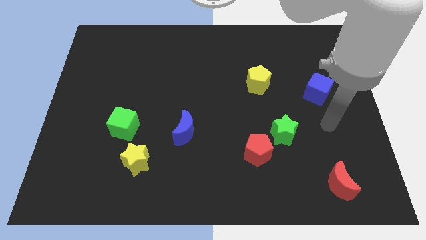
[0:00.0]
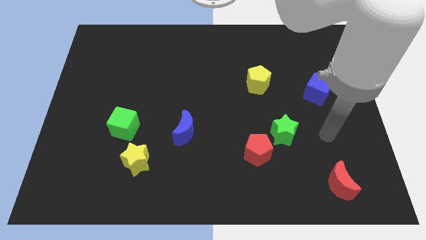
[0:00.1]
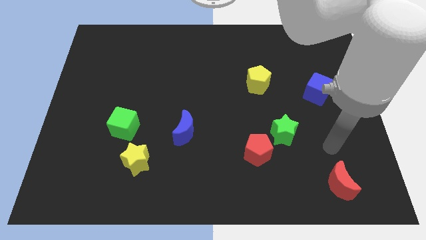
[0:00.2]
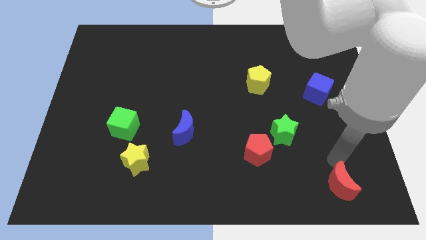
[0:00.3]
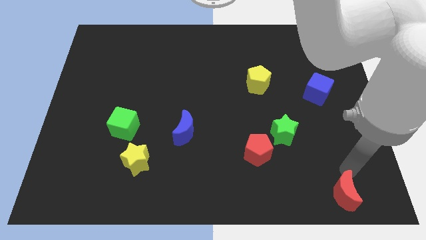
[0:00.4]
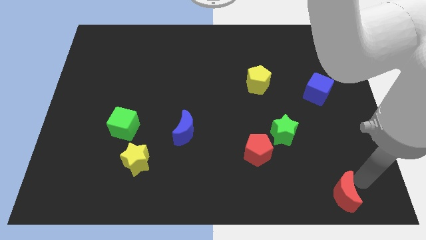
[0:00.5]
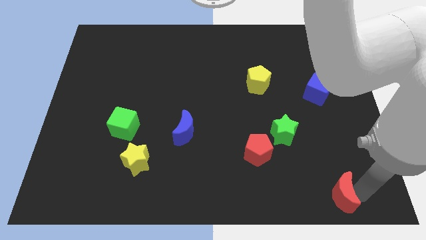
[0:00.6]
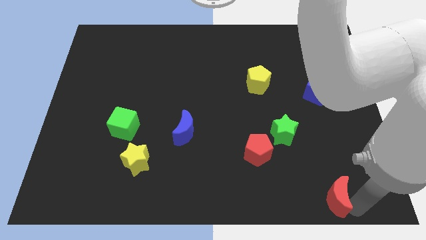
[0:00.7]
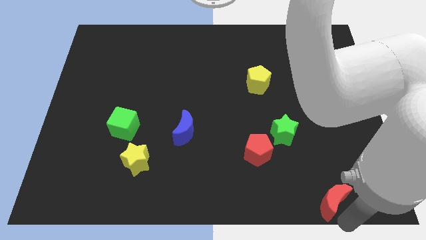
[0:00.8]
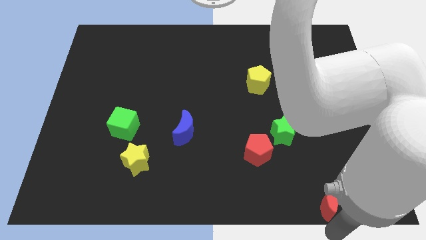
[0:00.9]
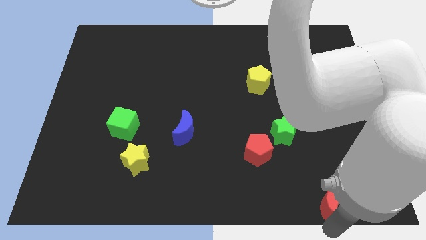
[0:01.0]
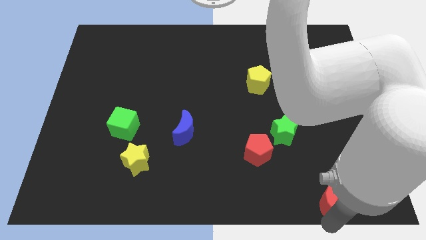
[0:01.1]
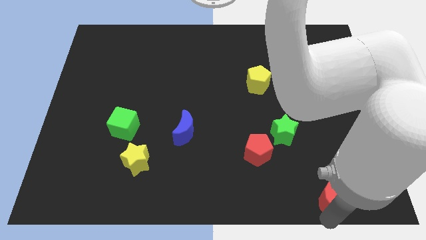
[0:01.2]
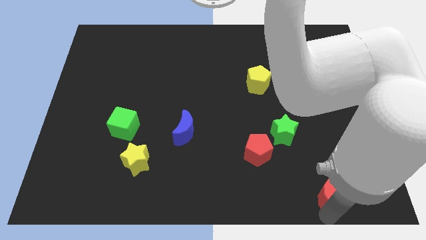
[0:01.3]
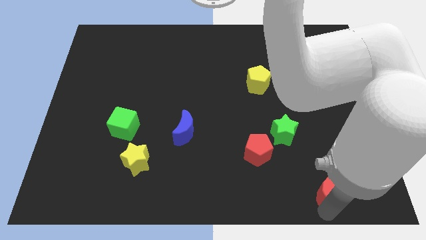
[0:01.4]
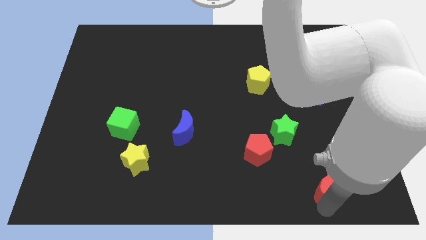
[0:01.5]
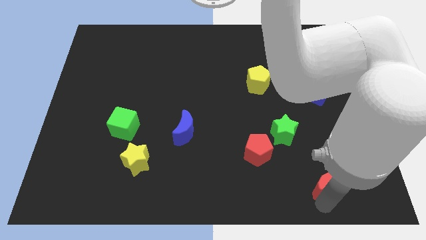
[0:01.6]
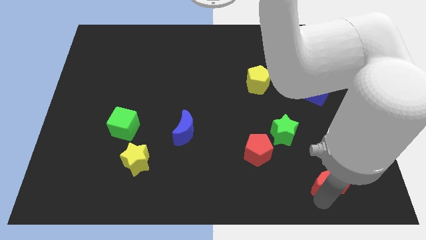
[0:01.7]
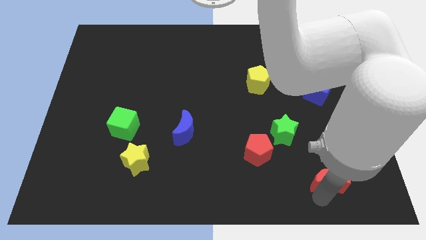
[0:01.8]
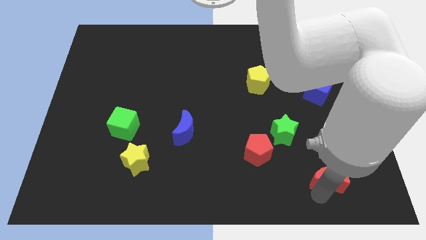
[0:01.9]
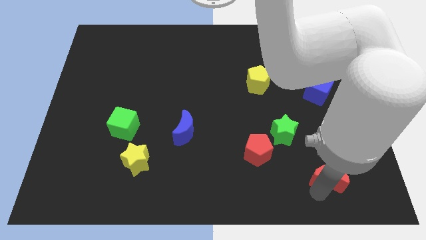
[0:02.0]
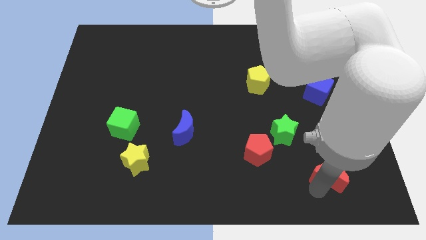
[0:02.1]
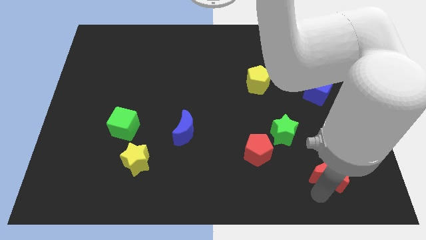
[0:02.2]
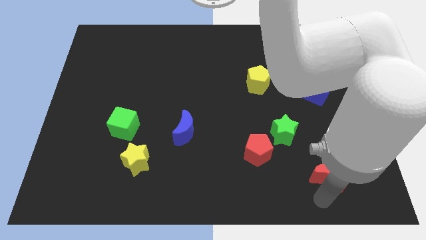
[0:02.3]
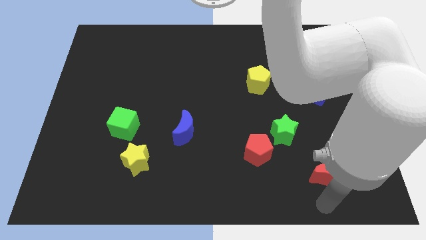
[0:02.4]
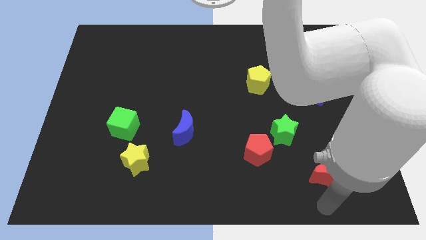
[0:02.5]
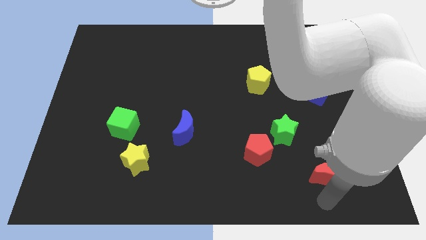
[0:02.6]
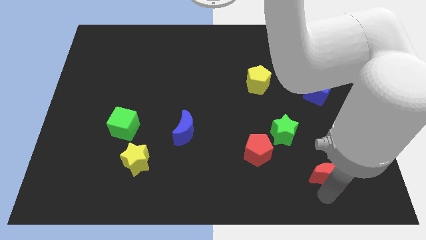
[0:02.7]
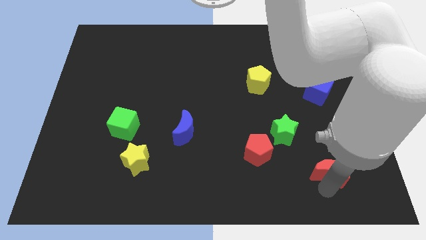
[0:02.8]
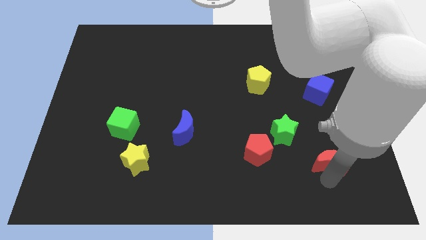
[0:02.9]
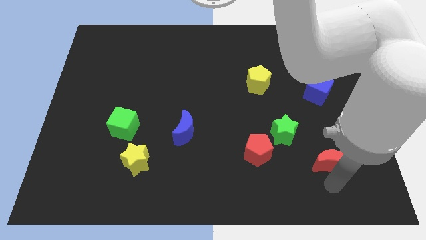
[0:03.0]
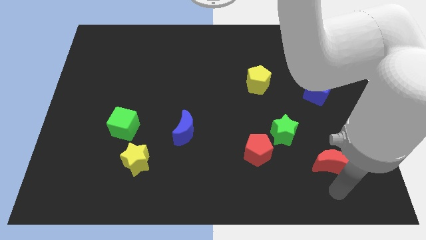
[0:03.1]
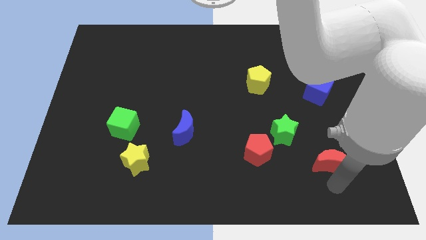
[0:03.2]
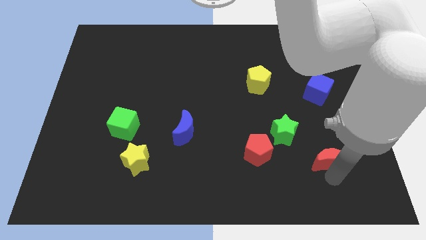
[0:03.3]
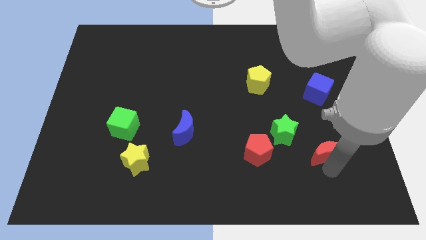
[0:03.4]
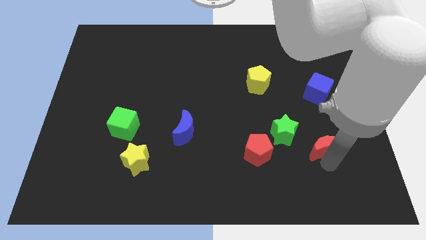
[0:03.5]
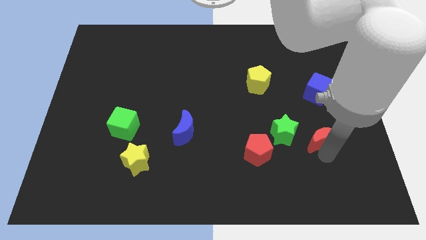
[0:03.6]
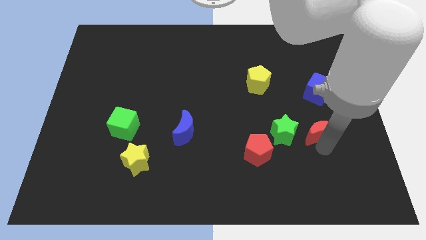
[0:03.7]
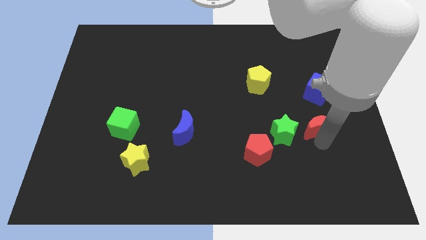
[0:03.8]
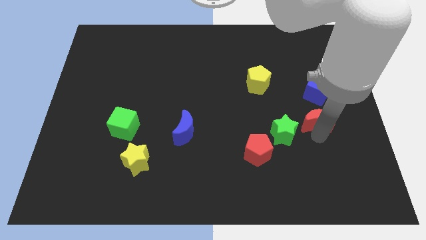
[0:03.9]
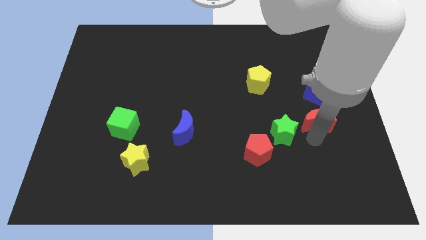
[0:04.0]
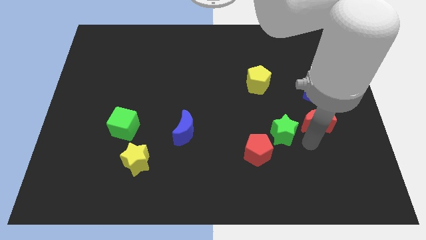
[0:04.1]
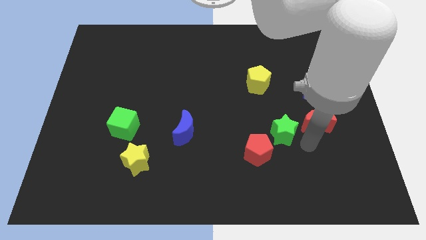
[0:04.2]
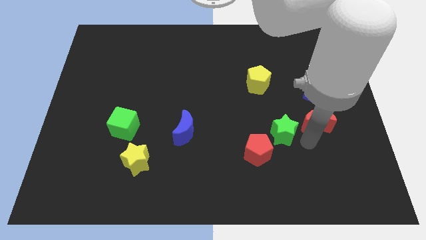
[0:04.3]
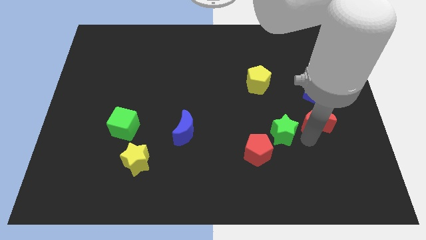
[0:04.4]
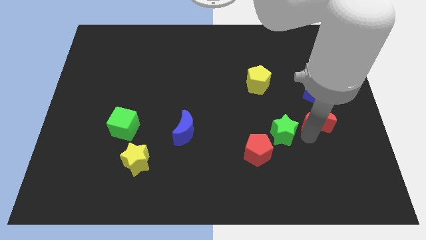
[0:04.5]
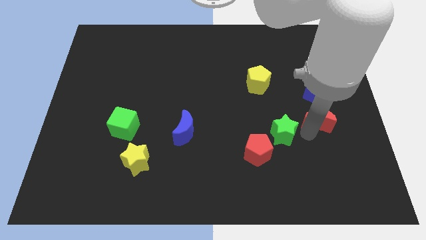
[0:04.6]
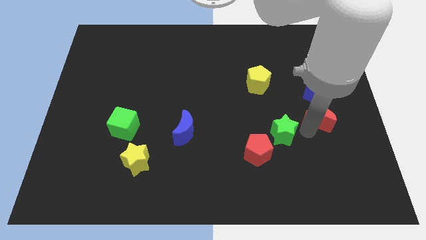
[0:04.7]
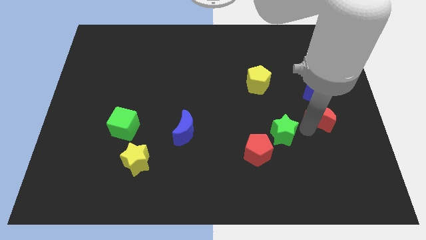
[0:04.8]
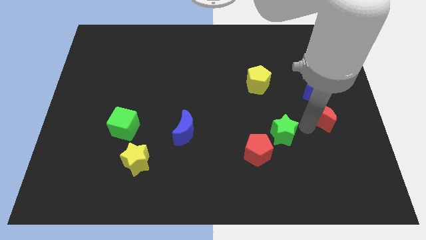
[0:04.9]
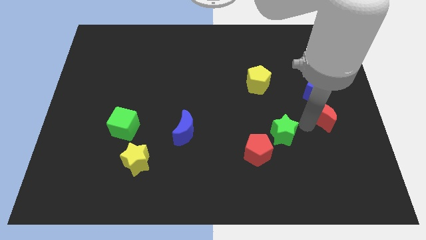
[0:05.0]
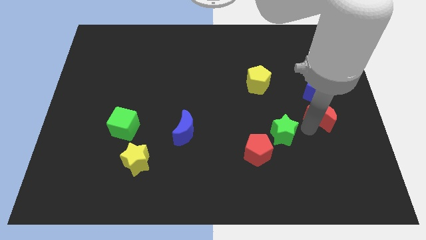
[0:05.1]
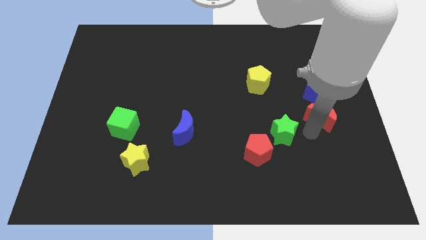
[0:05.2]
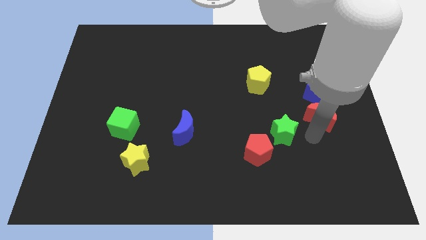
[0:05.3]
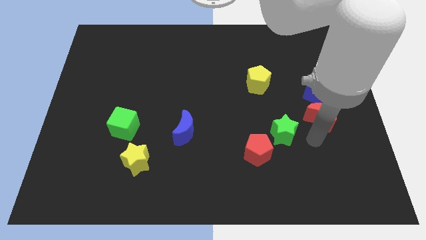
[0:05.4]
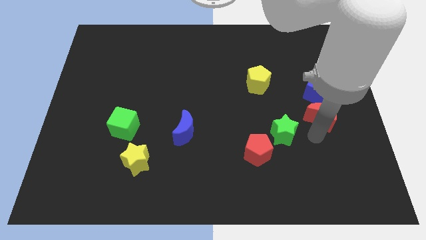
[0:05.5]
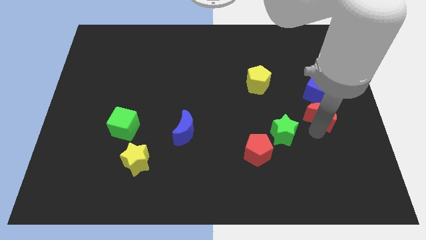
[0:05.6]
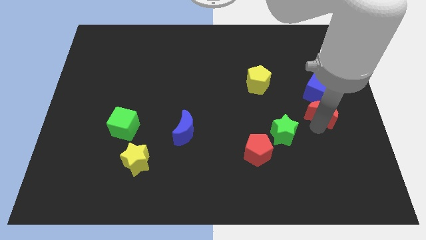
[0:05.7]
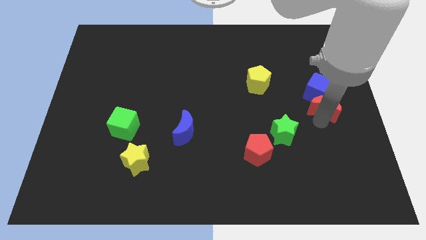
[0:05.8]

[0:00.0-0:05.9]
slide the red moon to the blue cube

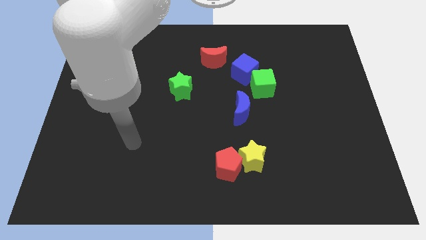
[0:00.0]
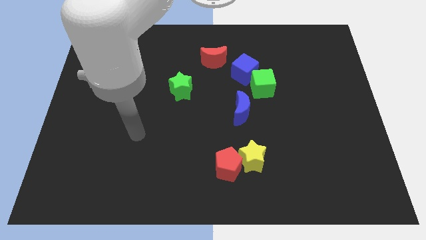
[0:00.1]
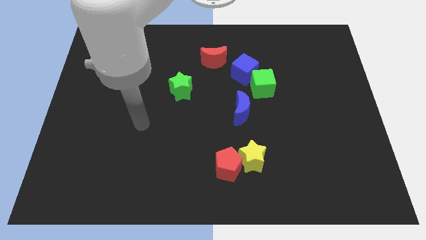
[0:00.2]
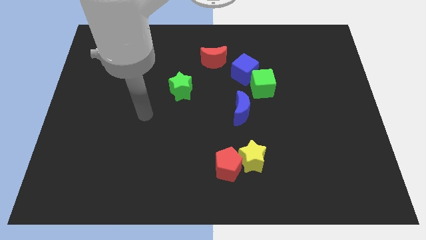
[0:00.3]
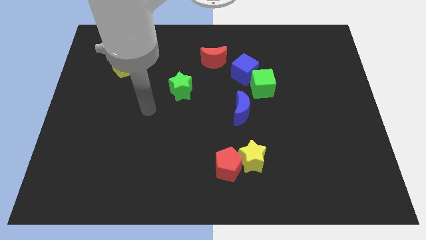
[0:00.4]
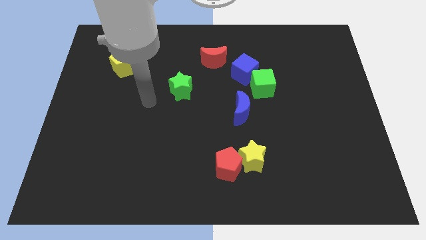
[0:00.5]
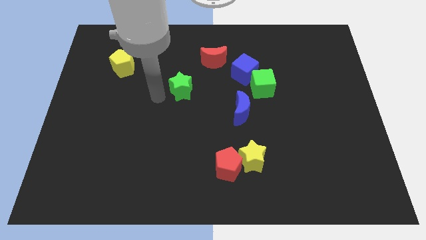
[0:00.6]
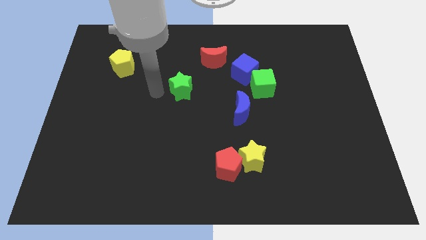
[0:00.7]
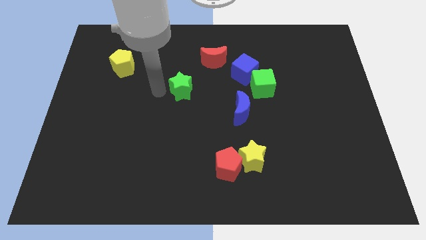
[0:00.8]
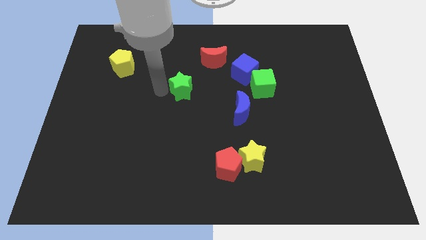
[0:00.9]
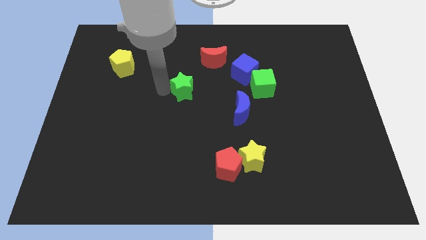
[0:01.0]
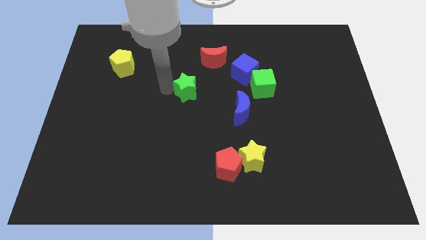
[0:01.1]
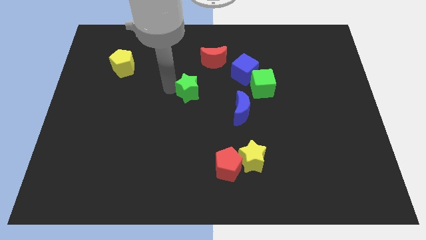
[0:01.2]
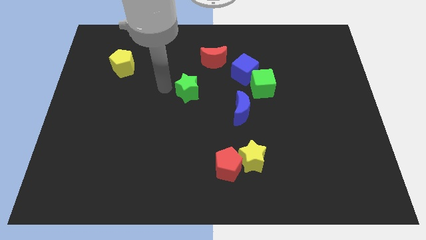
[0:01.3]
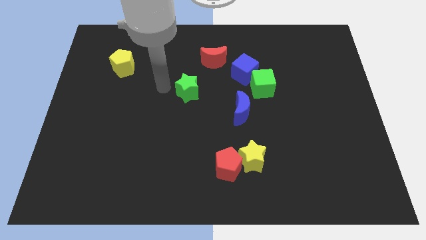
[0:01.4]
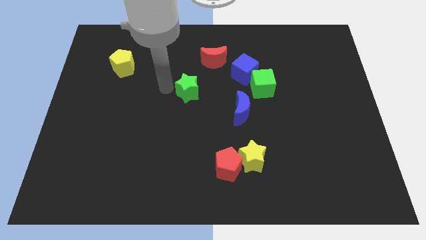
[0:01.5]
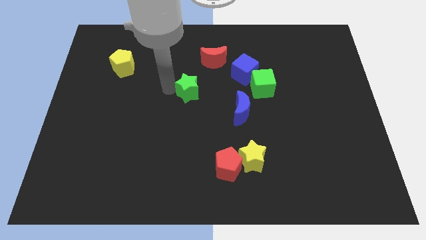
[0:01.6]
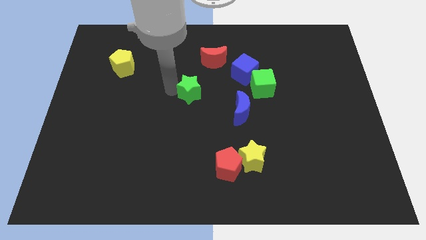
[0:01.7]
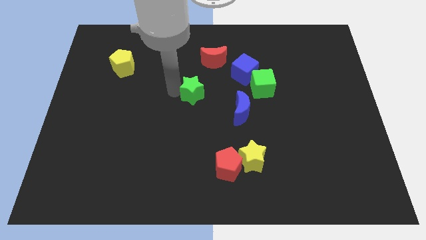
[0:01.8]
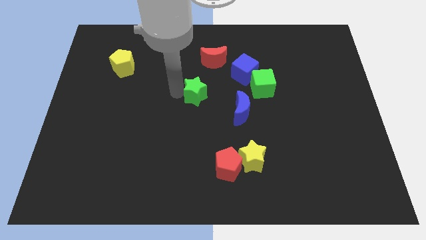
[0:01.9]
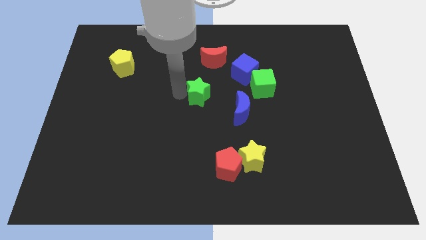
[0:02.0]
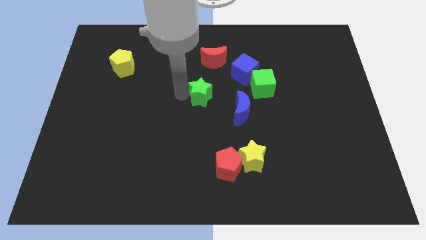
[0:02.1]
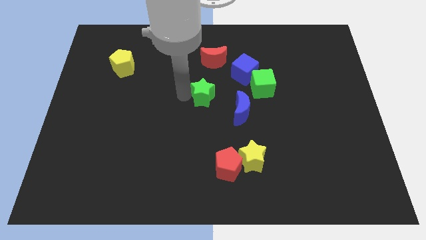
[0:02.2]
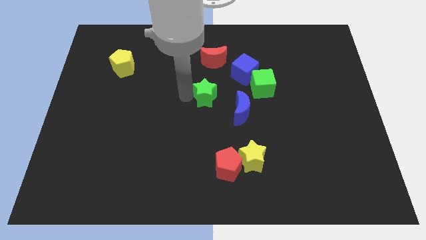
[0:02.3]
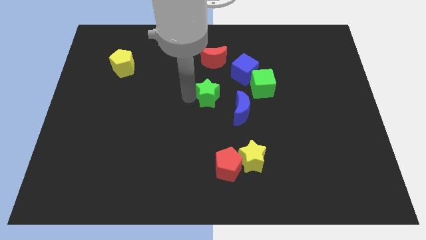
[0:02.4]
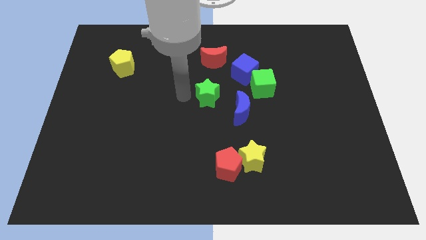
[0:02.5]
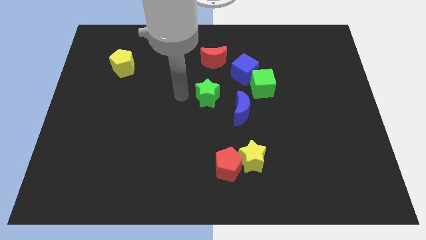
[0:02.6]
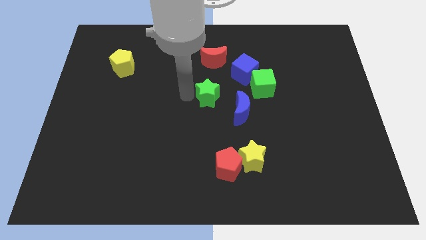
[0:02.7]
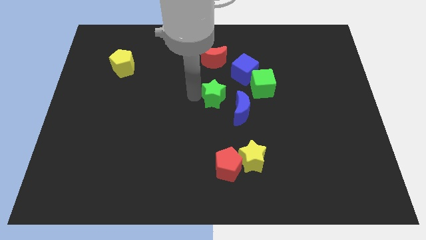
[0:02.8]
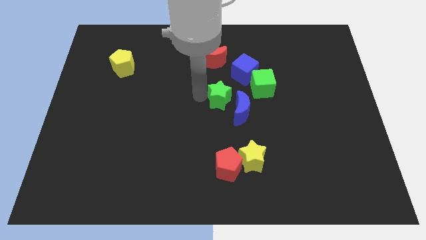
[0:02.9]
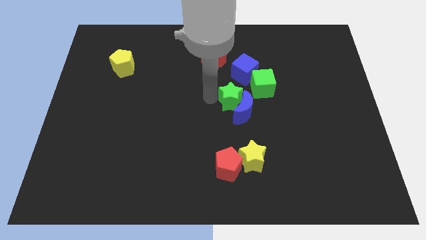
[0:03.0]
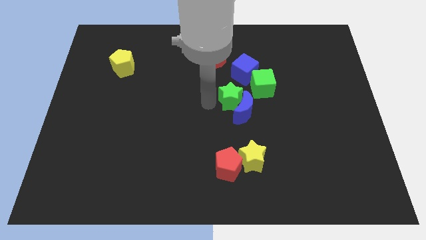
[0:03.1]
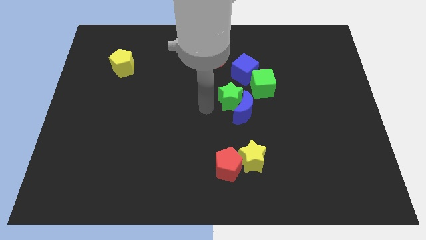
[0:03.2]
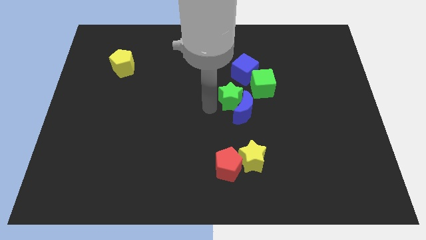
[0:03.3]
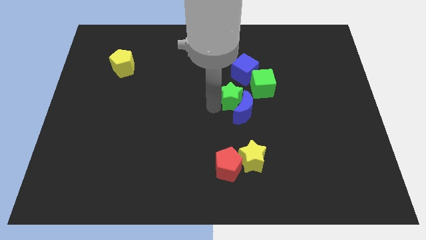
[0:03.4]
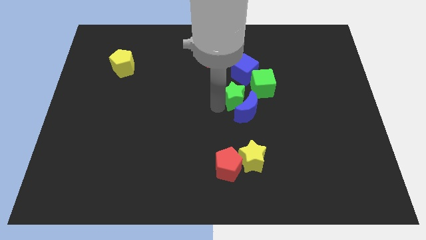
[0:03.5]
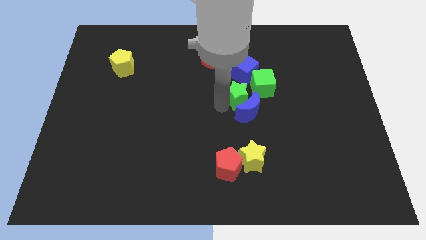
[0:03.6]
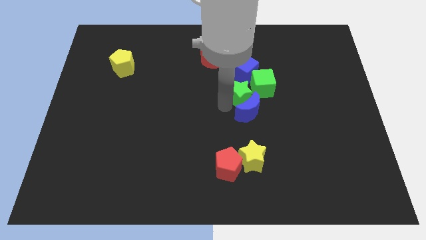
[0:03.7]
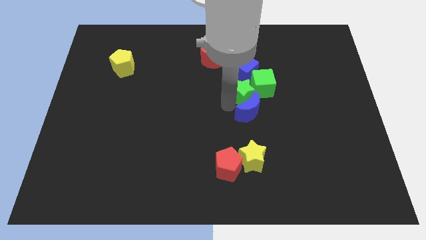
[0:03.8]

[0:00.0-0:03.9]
push the green star close to the green cube
